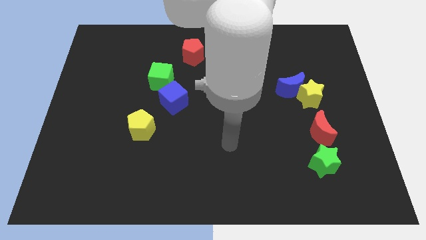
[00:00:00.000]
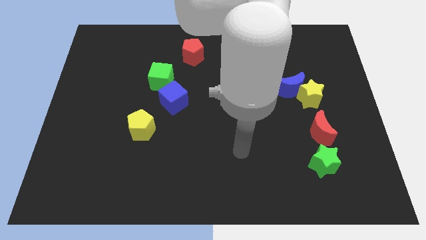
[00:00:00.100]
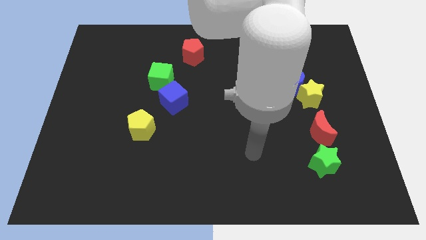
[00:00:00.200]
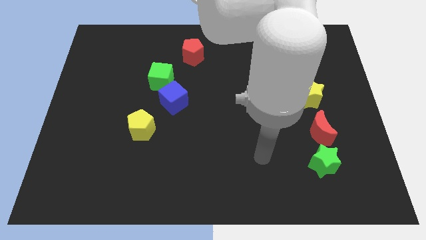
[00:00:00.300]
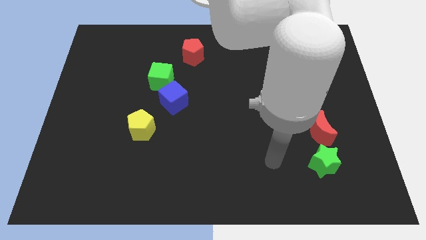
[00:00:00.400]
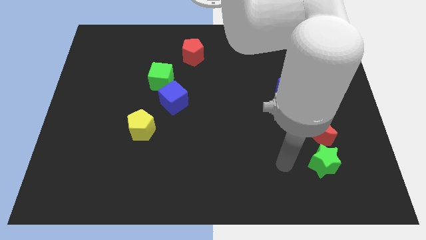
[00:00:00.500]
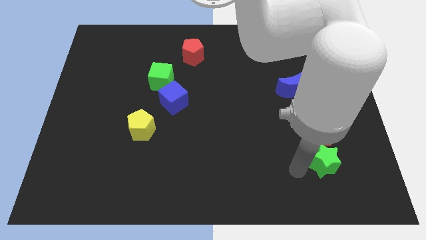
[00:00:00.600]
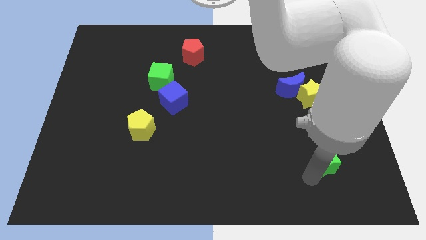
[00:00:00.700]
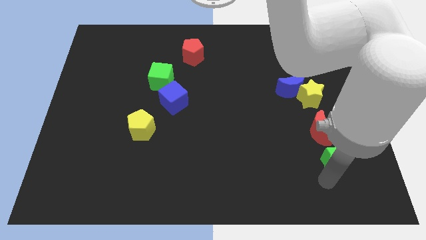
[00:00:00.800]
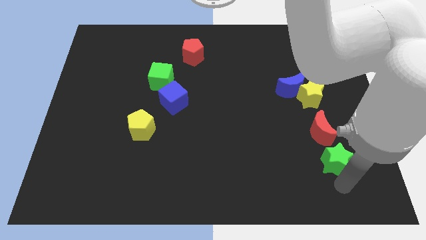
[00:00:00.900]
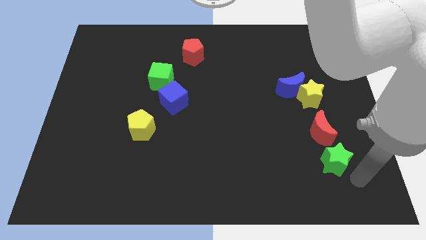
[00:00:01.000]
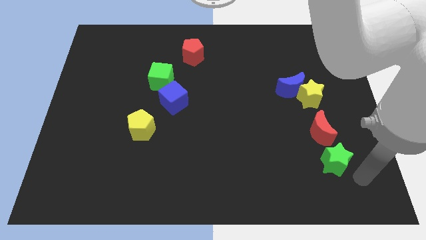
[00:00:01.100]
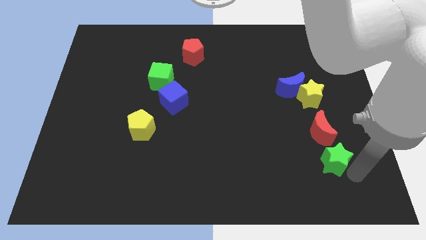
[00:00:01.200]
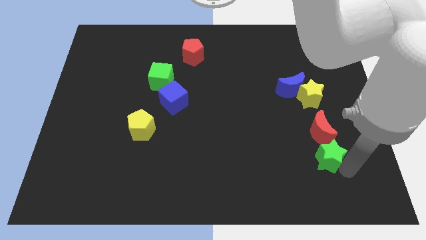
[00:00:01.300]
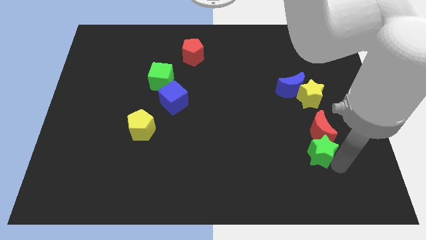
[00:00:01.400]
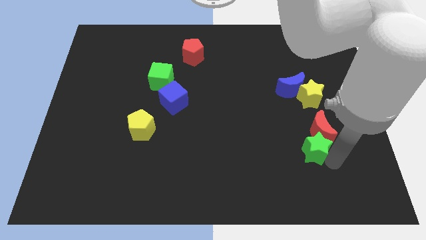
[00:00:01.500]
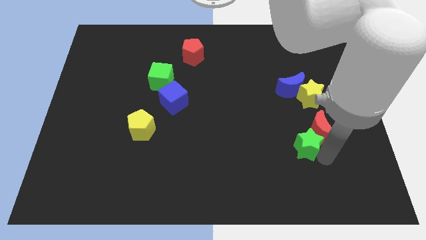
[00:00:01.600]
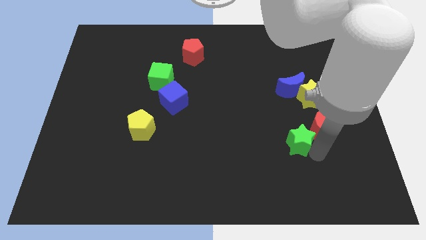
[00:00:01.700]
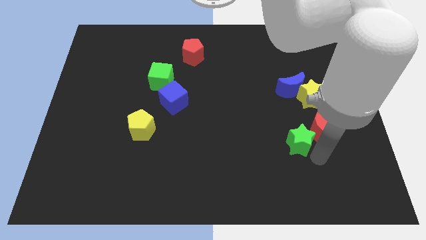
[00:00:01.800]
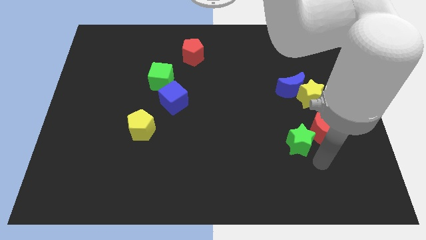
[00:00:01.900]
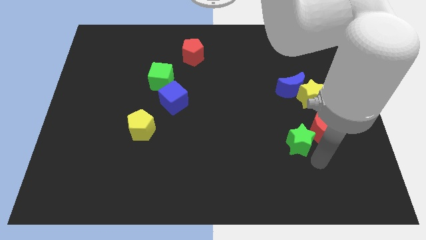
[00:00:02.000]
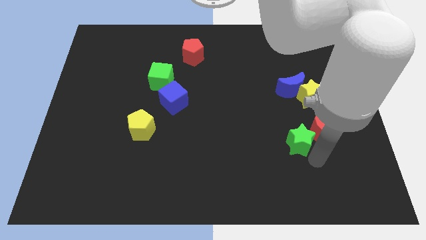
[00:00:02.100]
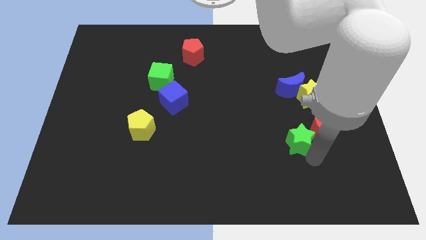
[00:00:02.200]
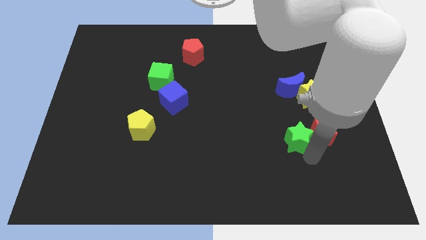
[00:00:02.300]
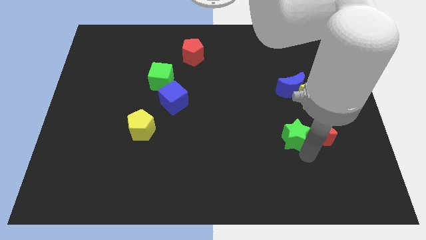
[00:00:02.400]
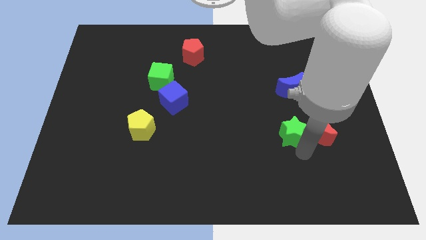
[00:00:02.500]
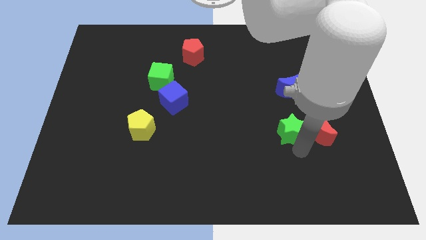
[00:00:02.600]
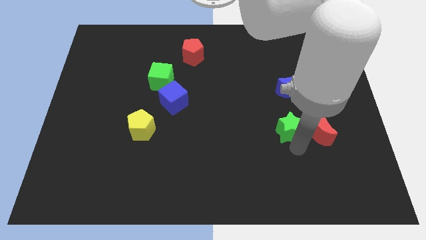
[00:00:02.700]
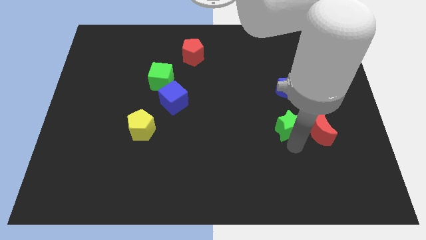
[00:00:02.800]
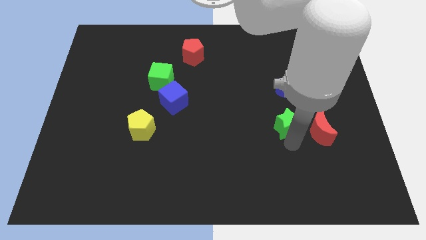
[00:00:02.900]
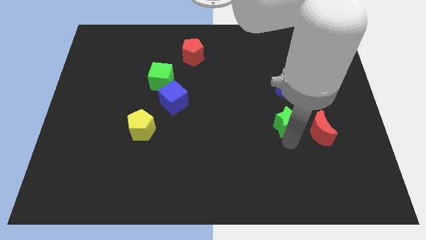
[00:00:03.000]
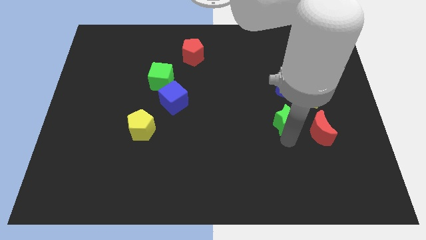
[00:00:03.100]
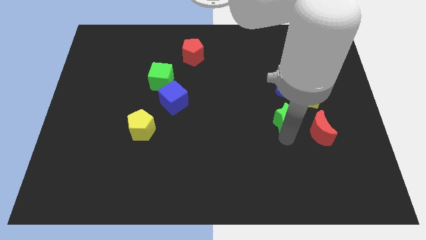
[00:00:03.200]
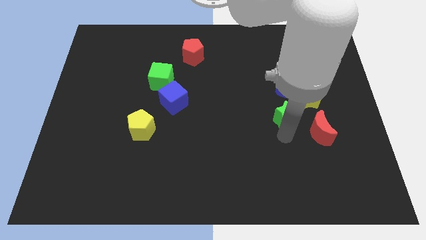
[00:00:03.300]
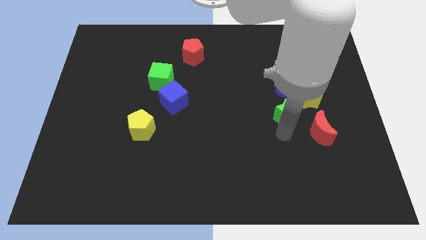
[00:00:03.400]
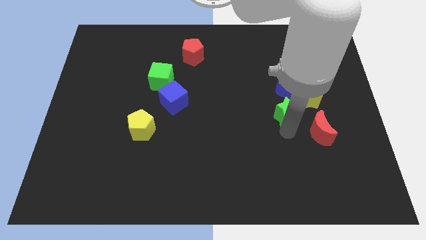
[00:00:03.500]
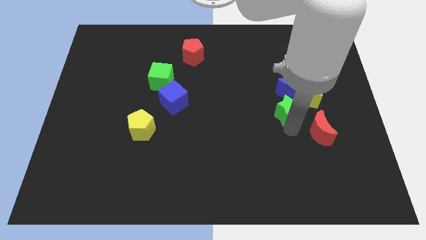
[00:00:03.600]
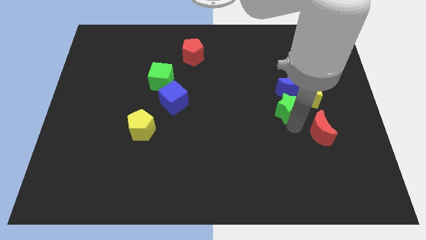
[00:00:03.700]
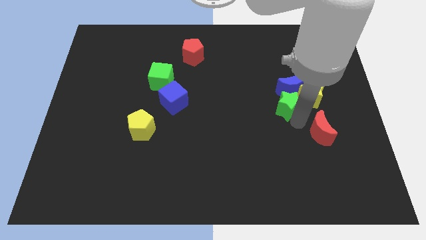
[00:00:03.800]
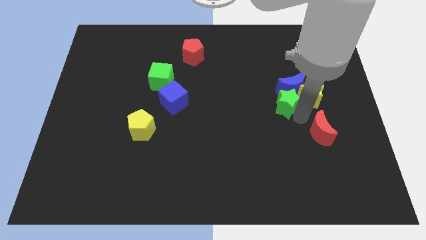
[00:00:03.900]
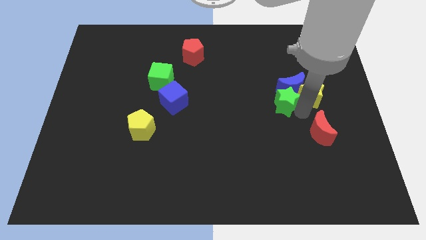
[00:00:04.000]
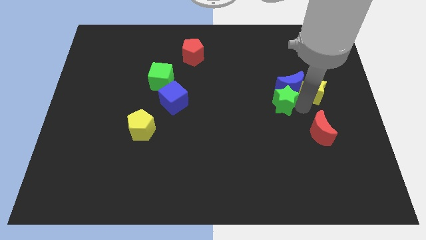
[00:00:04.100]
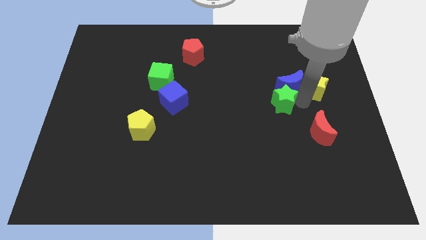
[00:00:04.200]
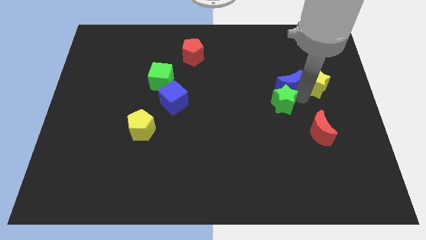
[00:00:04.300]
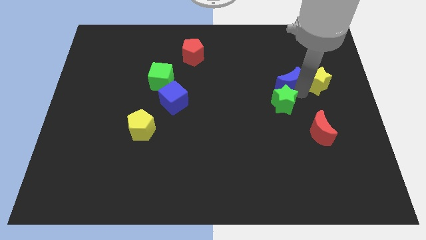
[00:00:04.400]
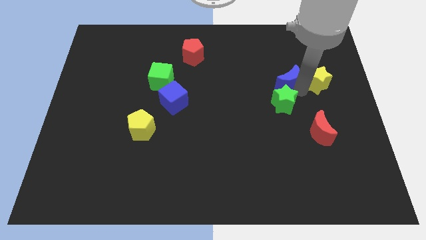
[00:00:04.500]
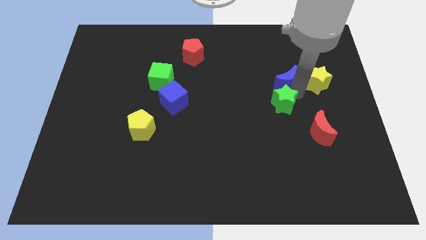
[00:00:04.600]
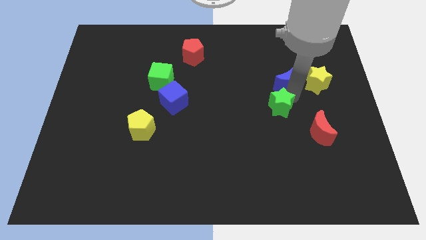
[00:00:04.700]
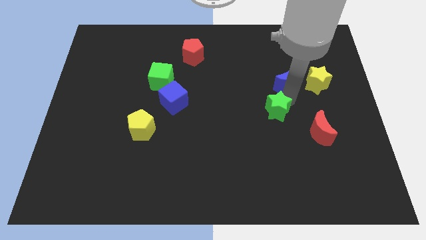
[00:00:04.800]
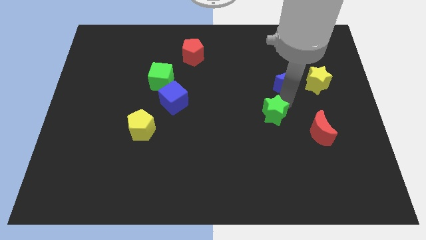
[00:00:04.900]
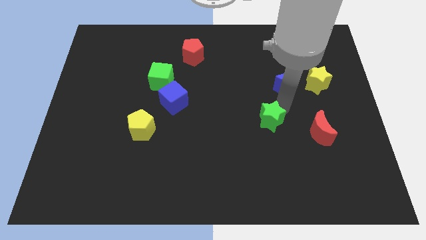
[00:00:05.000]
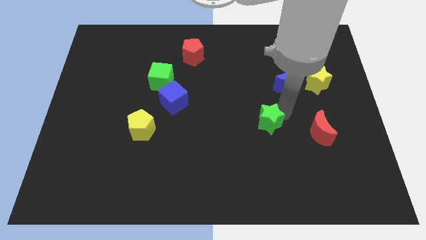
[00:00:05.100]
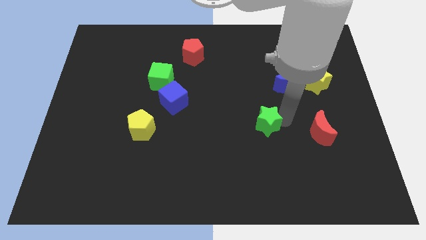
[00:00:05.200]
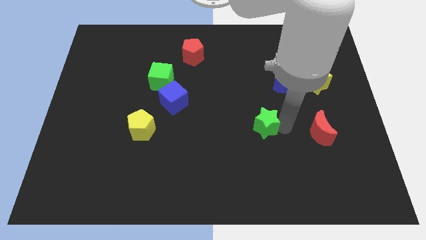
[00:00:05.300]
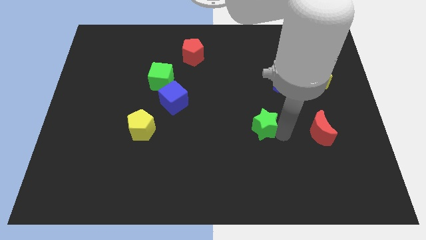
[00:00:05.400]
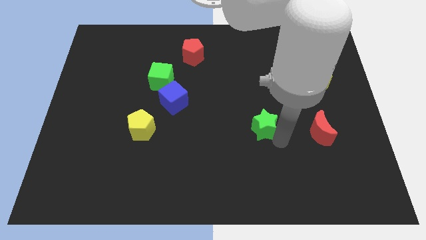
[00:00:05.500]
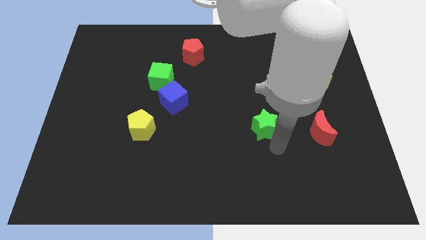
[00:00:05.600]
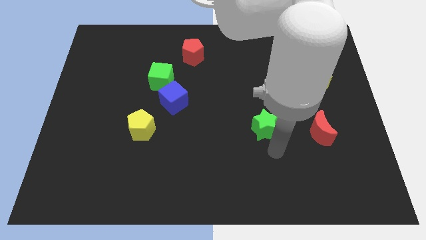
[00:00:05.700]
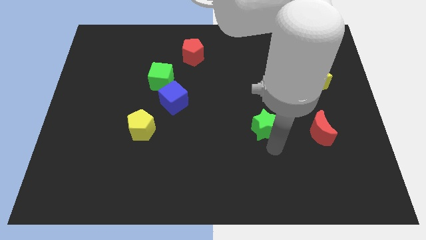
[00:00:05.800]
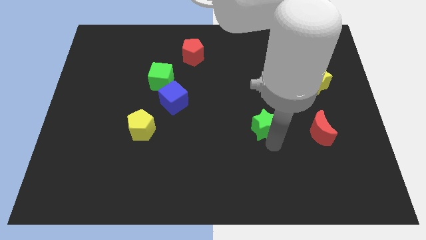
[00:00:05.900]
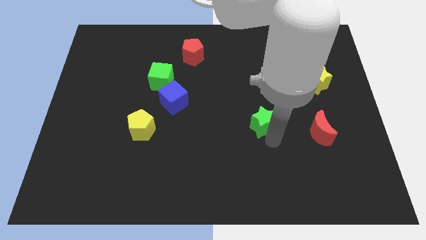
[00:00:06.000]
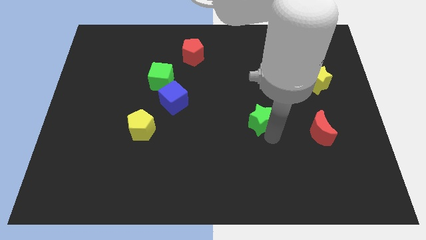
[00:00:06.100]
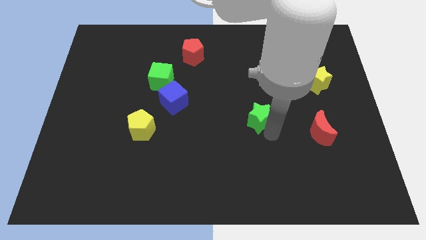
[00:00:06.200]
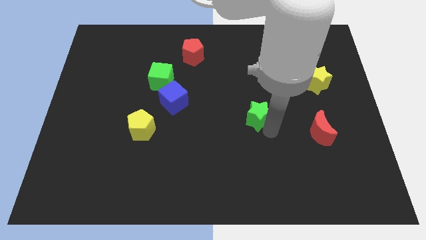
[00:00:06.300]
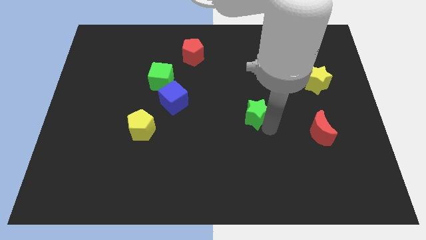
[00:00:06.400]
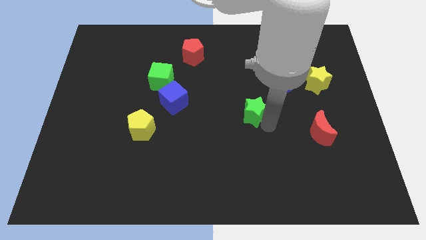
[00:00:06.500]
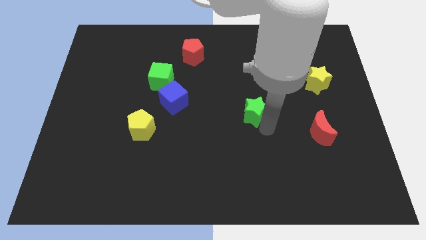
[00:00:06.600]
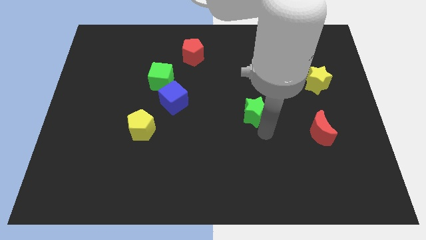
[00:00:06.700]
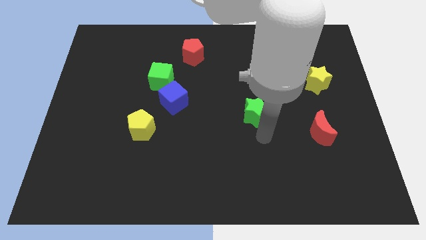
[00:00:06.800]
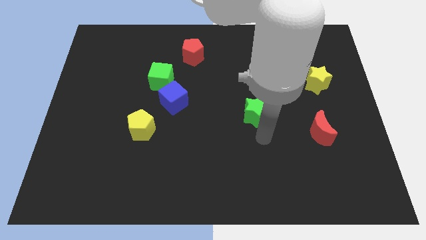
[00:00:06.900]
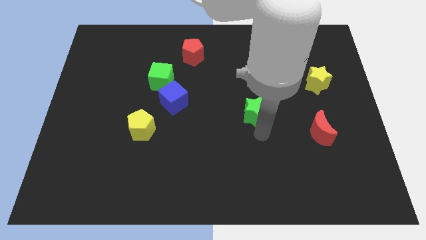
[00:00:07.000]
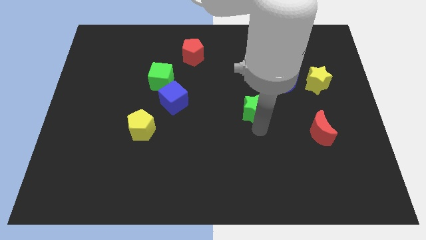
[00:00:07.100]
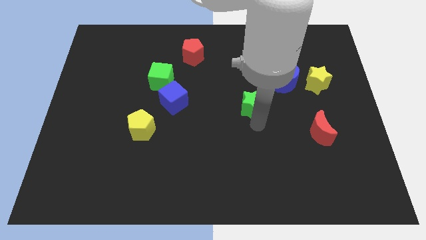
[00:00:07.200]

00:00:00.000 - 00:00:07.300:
push the green star upwards and then to the left

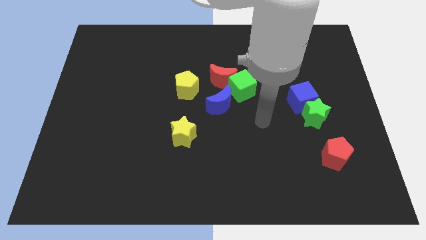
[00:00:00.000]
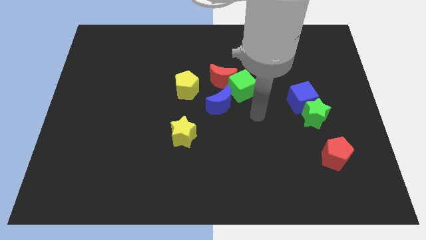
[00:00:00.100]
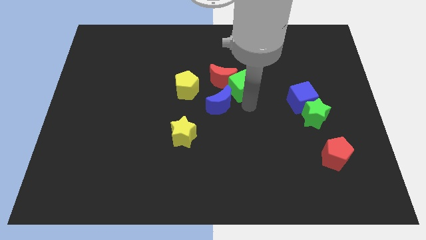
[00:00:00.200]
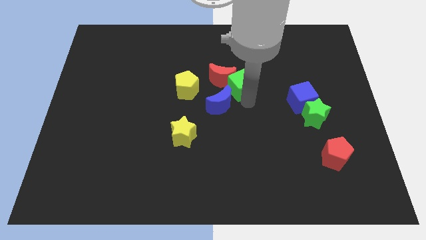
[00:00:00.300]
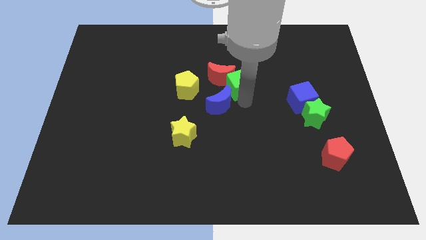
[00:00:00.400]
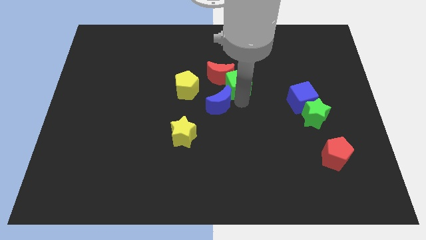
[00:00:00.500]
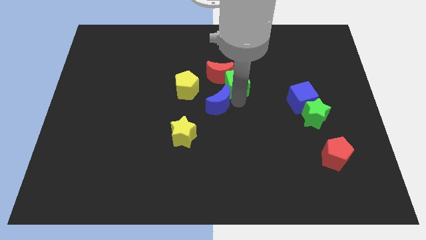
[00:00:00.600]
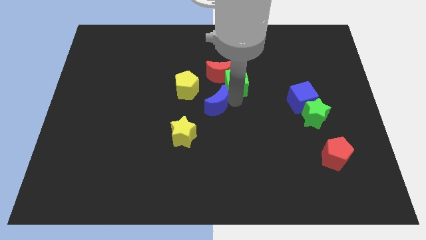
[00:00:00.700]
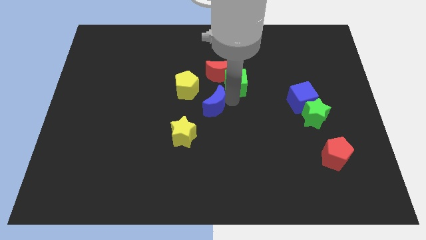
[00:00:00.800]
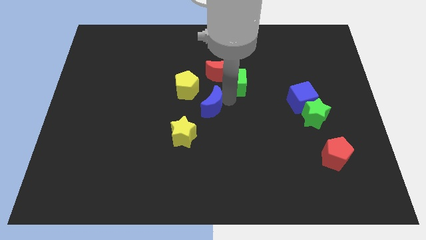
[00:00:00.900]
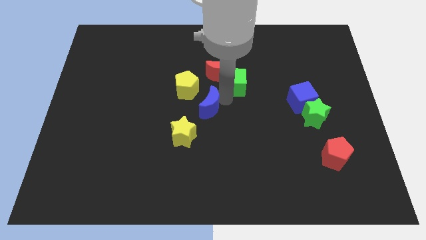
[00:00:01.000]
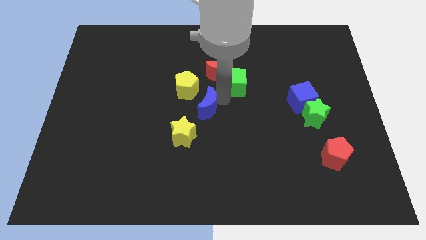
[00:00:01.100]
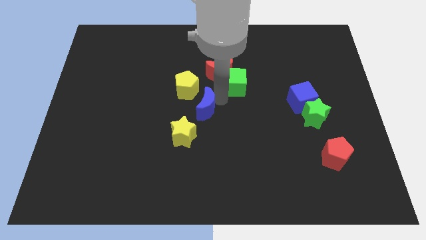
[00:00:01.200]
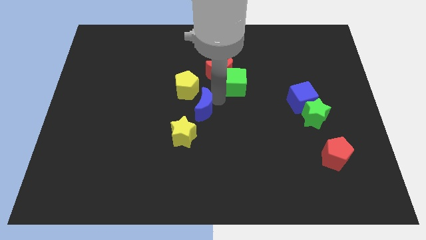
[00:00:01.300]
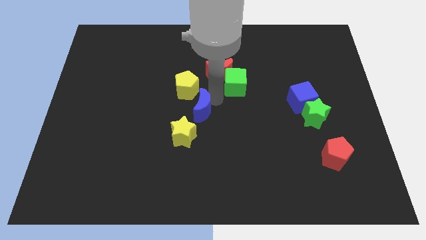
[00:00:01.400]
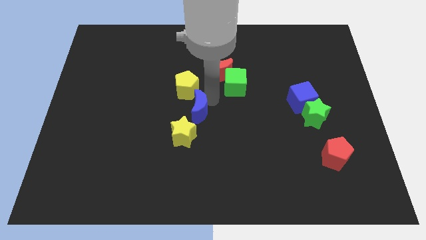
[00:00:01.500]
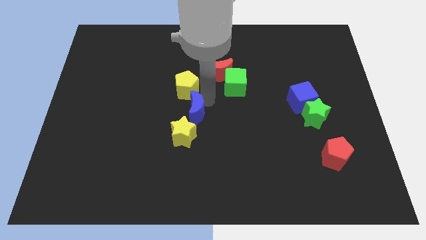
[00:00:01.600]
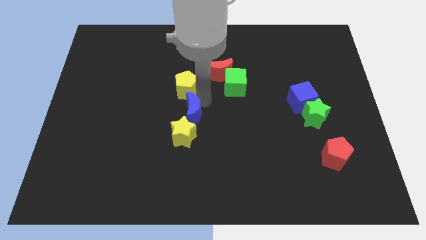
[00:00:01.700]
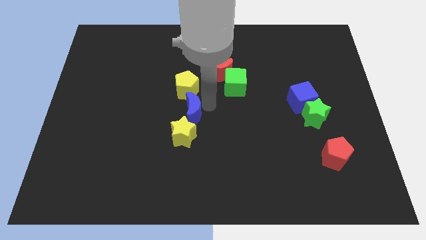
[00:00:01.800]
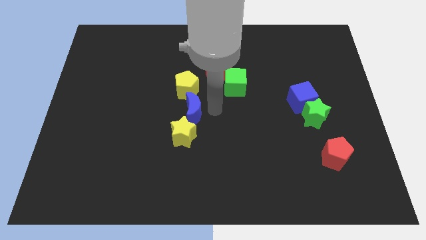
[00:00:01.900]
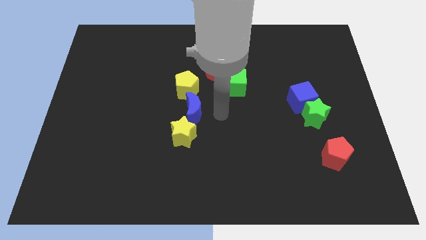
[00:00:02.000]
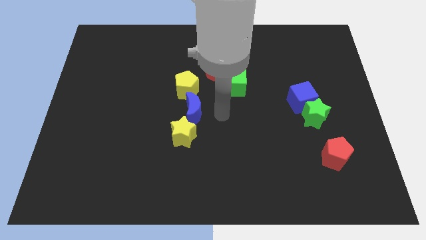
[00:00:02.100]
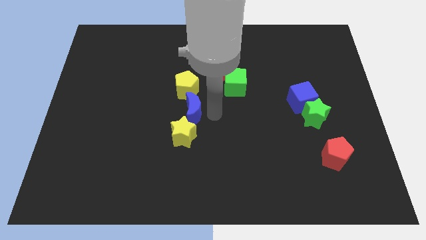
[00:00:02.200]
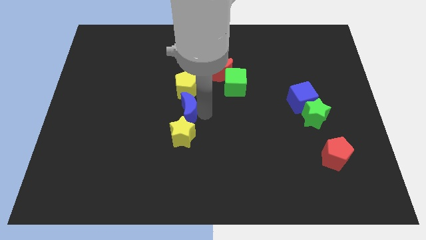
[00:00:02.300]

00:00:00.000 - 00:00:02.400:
push the blue moon a little left
